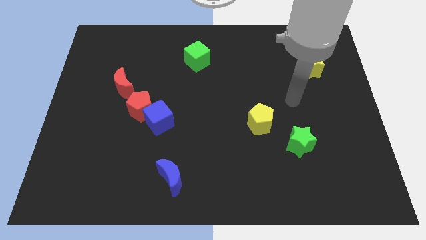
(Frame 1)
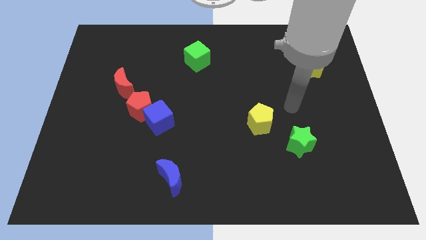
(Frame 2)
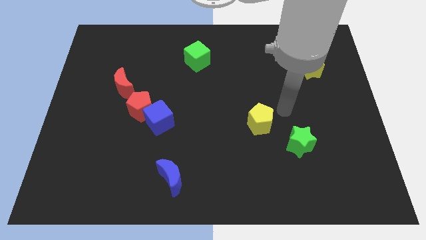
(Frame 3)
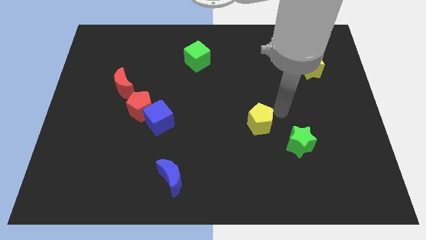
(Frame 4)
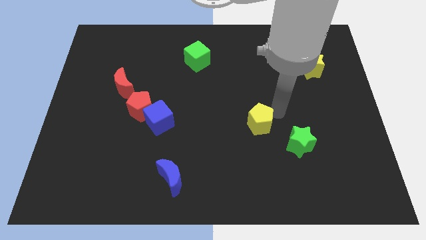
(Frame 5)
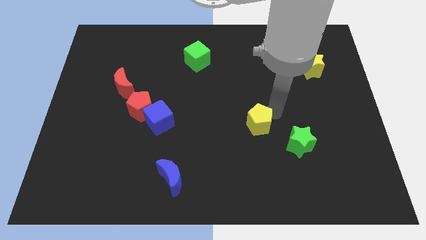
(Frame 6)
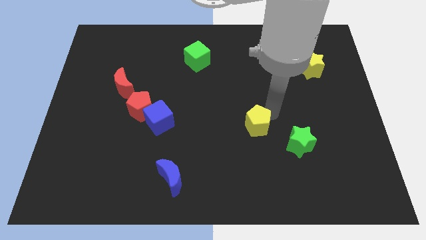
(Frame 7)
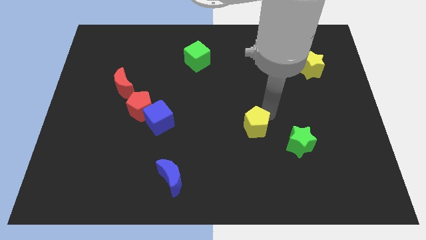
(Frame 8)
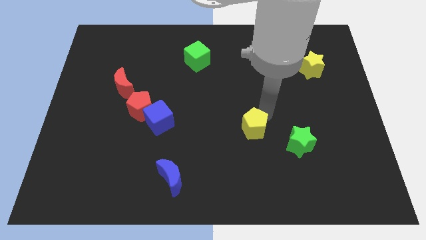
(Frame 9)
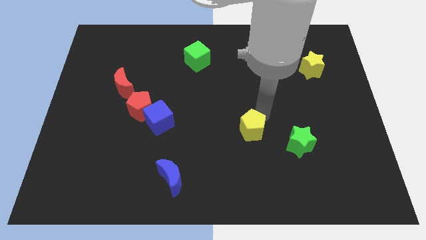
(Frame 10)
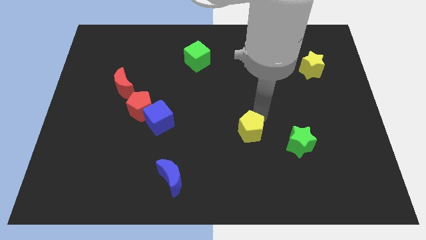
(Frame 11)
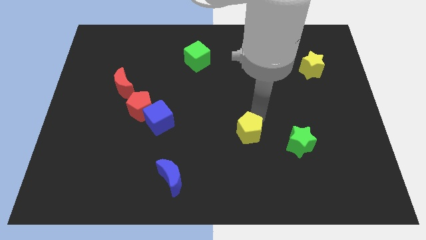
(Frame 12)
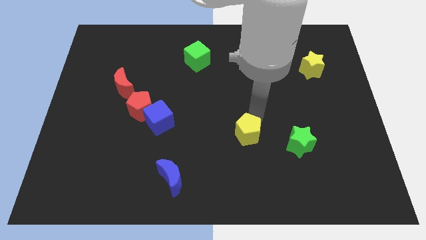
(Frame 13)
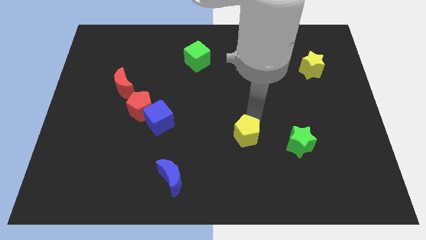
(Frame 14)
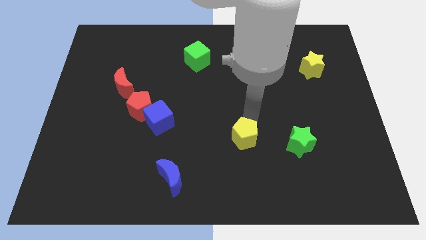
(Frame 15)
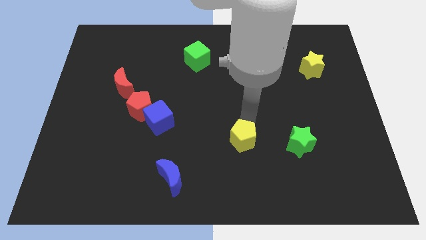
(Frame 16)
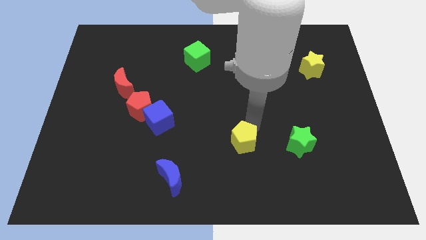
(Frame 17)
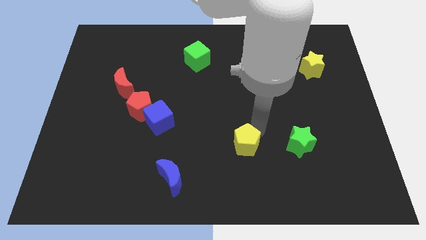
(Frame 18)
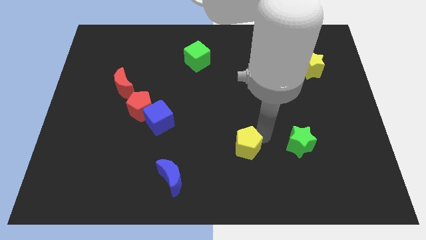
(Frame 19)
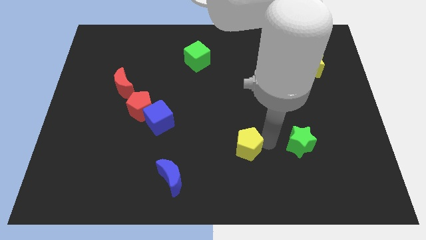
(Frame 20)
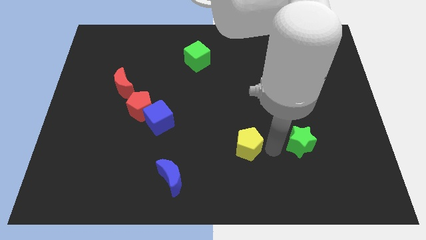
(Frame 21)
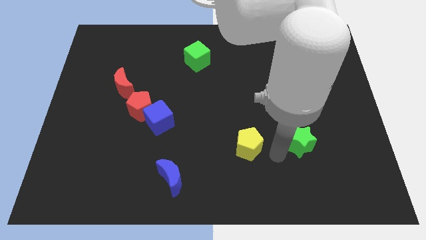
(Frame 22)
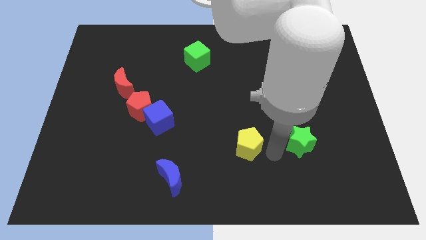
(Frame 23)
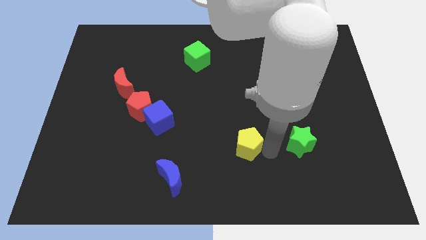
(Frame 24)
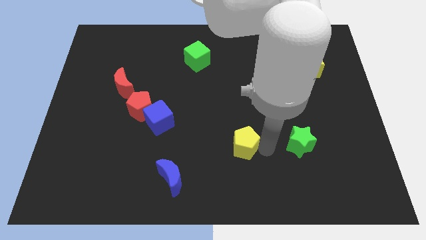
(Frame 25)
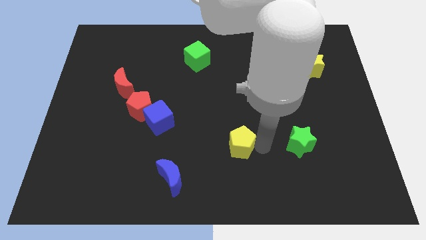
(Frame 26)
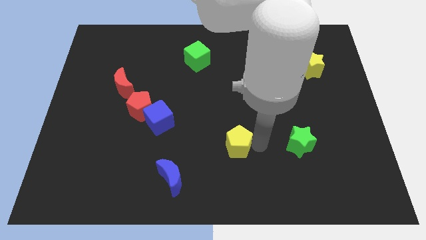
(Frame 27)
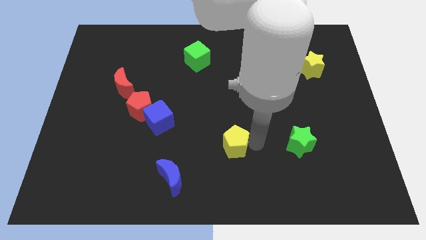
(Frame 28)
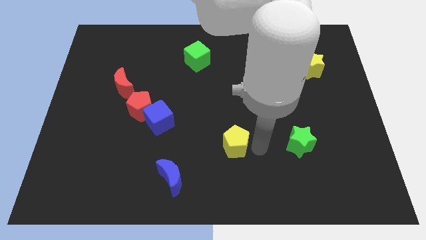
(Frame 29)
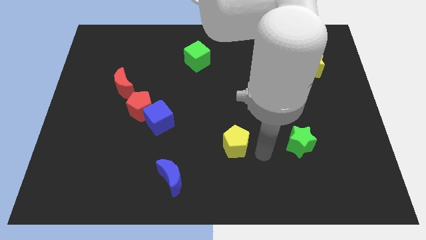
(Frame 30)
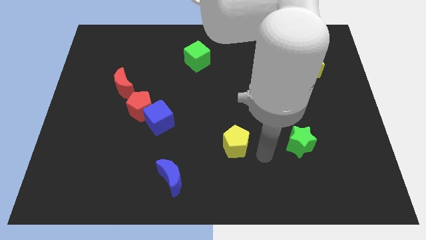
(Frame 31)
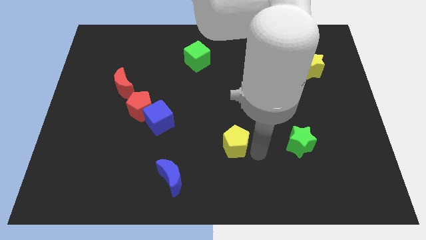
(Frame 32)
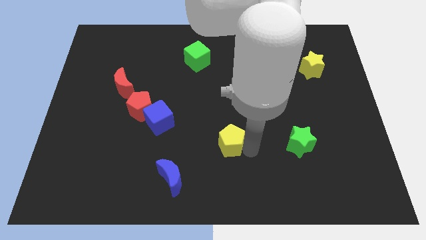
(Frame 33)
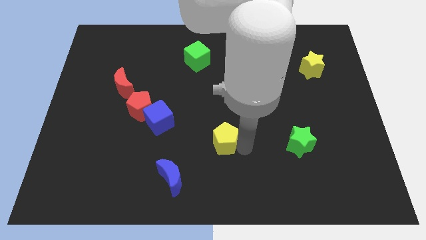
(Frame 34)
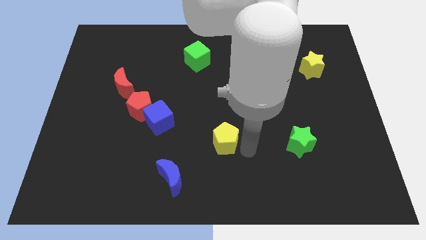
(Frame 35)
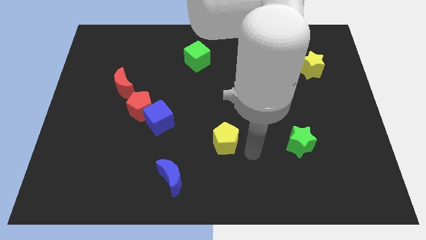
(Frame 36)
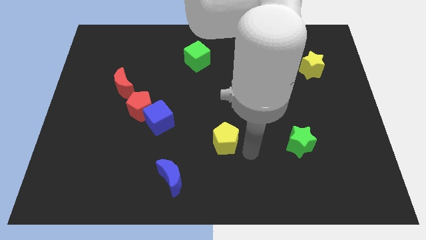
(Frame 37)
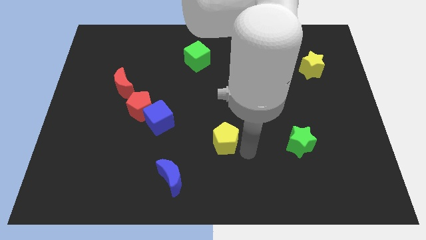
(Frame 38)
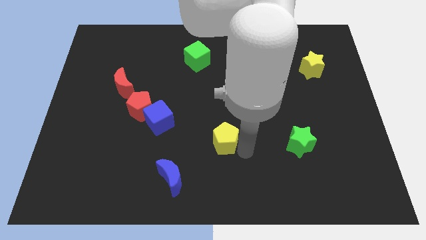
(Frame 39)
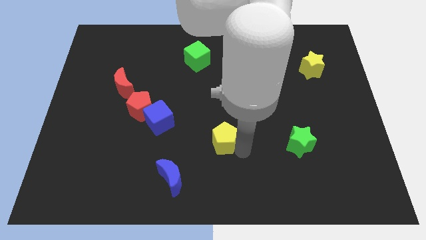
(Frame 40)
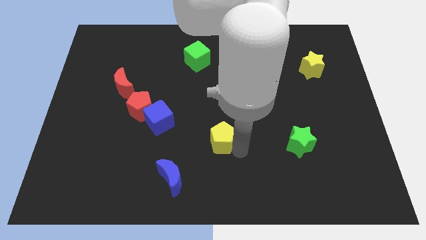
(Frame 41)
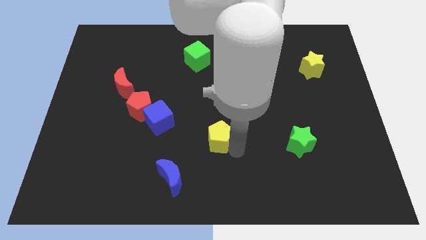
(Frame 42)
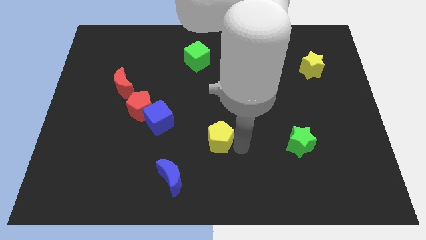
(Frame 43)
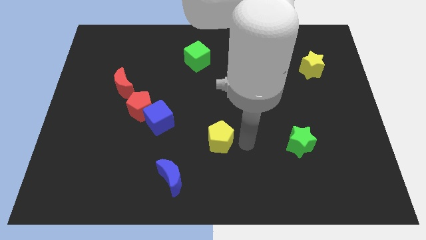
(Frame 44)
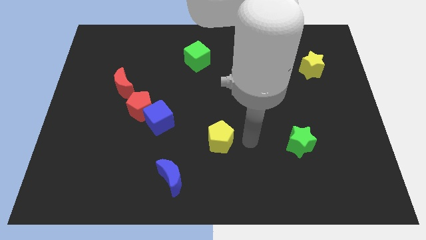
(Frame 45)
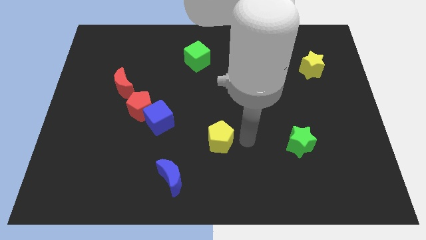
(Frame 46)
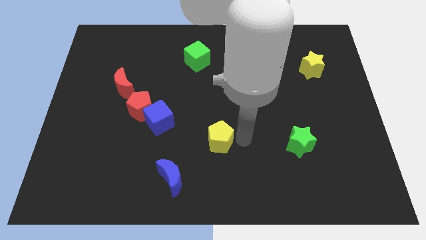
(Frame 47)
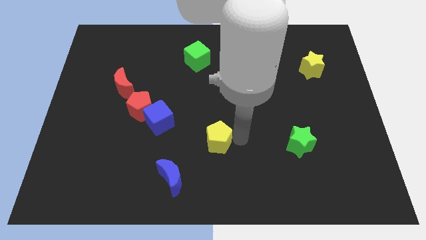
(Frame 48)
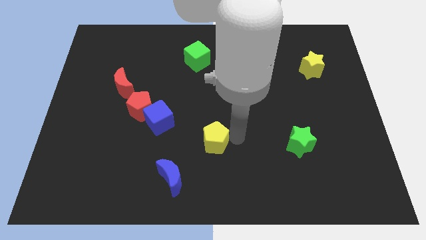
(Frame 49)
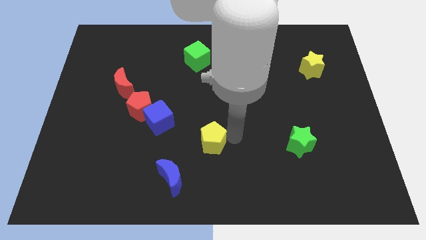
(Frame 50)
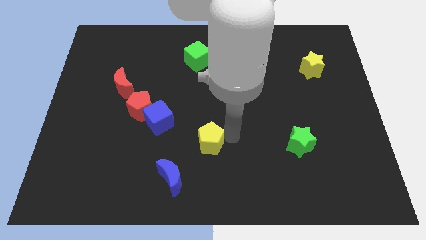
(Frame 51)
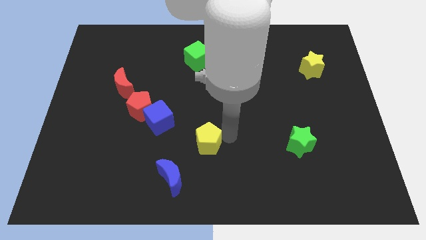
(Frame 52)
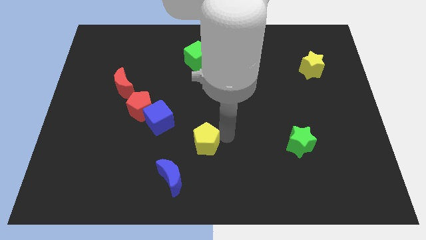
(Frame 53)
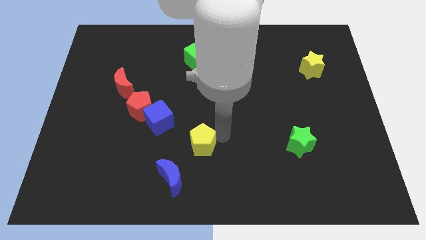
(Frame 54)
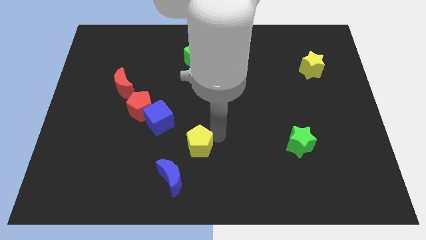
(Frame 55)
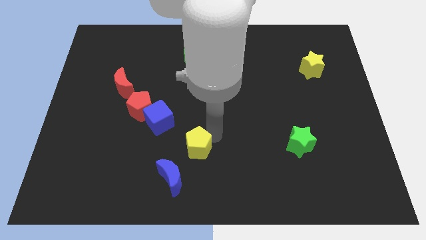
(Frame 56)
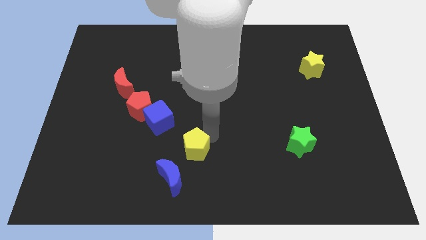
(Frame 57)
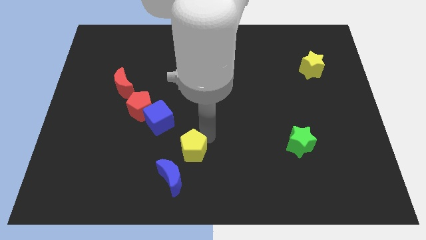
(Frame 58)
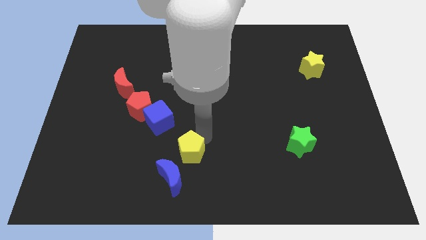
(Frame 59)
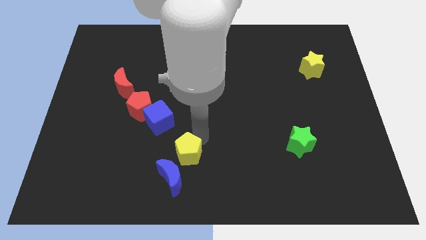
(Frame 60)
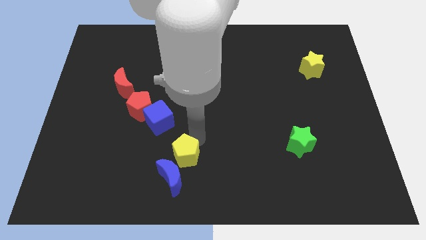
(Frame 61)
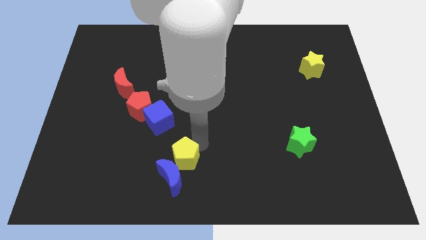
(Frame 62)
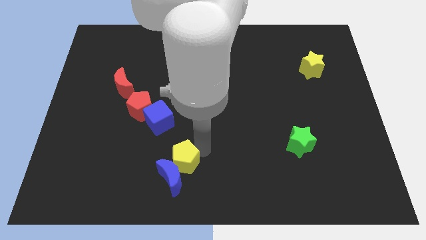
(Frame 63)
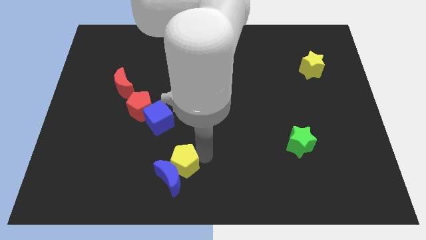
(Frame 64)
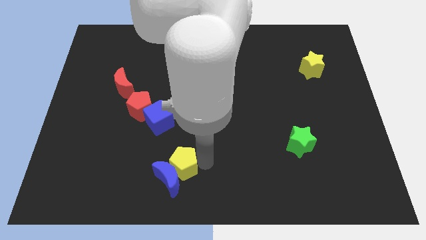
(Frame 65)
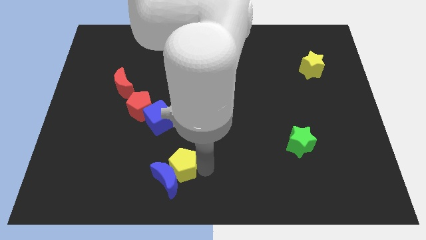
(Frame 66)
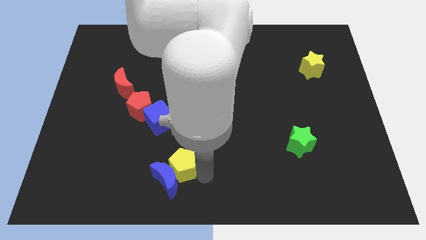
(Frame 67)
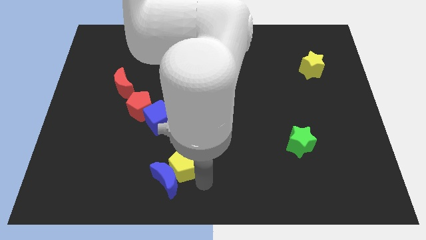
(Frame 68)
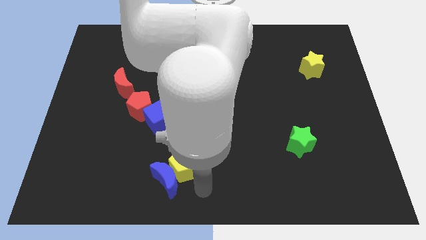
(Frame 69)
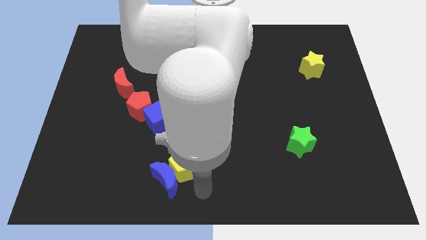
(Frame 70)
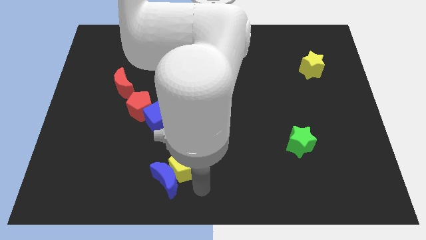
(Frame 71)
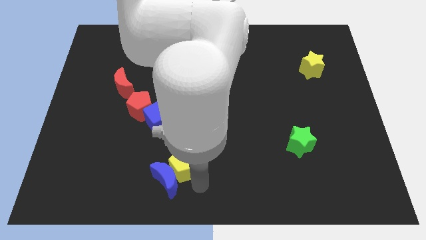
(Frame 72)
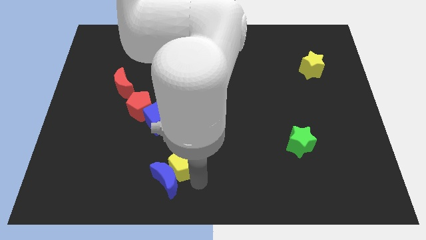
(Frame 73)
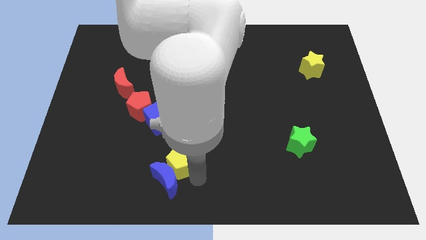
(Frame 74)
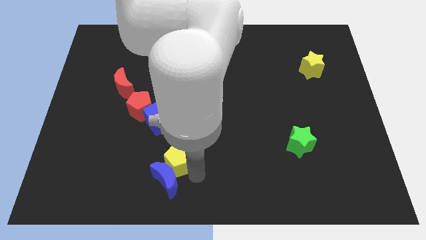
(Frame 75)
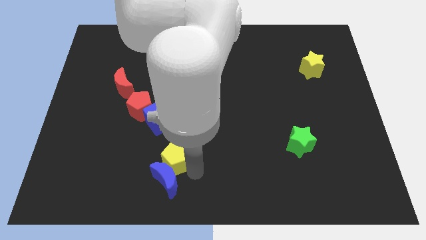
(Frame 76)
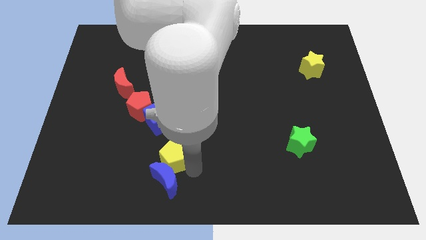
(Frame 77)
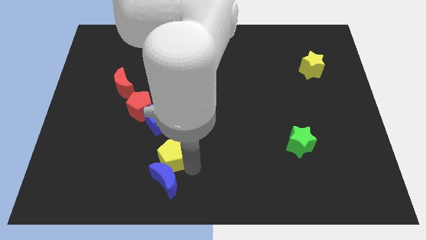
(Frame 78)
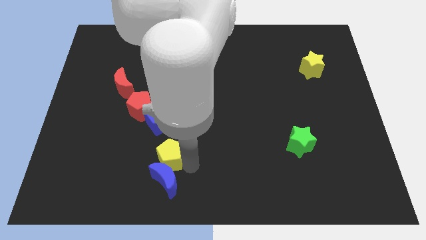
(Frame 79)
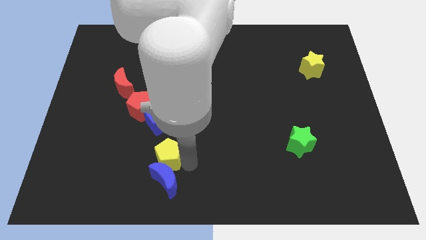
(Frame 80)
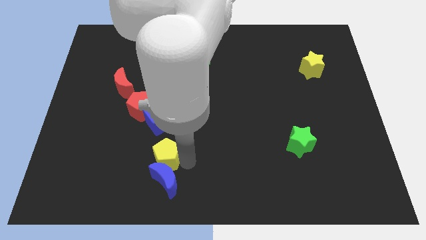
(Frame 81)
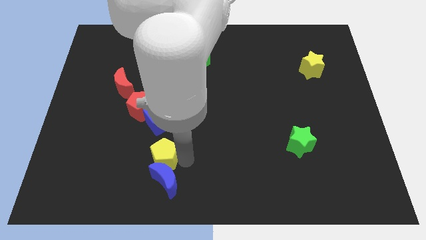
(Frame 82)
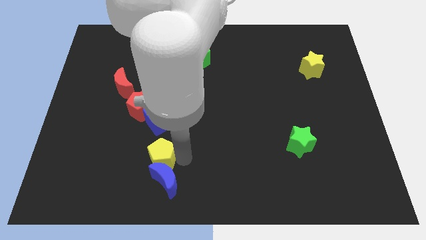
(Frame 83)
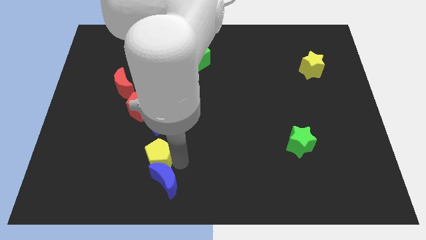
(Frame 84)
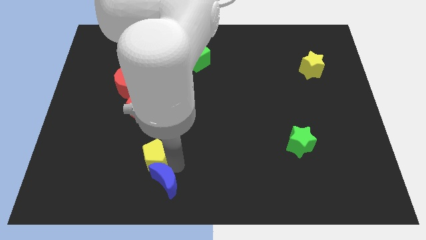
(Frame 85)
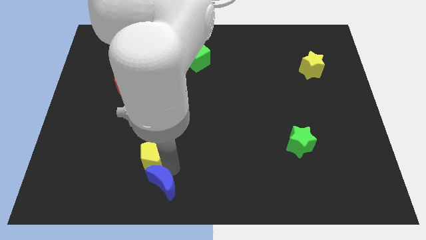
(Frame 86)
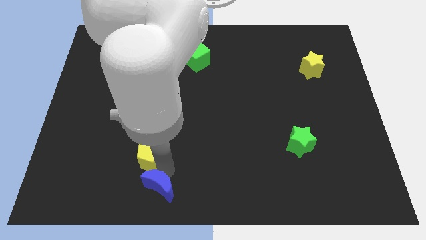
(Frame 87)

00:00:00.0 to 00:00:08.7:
move the yellow pentagon left
